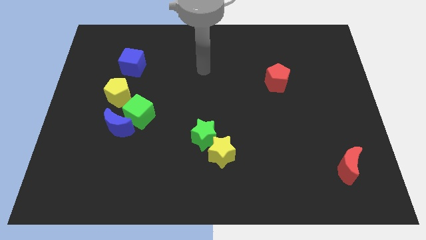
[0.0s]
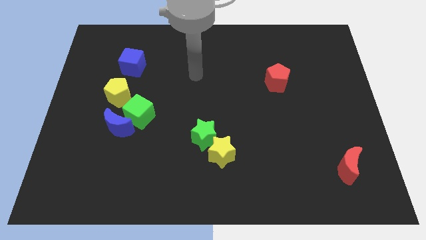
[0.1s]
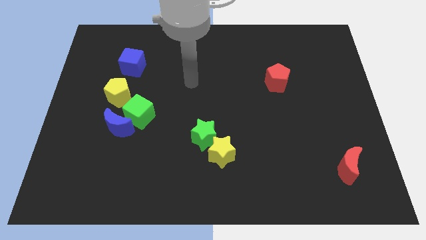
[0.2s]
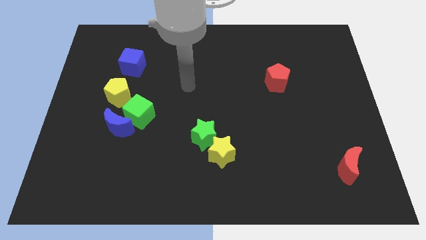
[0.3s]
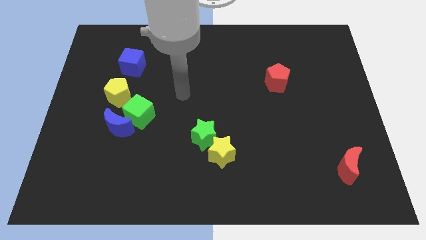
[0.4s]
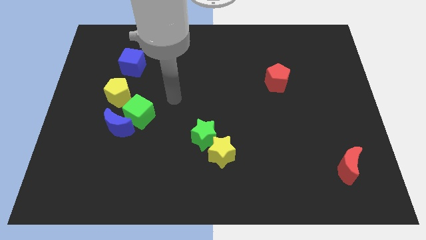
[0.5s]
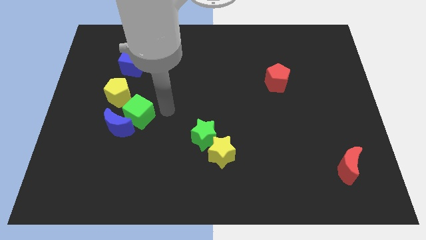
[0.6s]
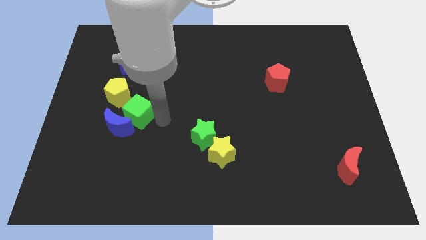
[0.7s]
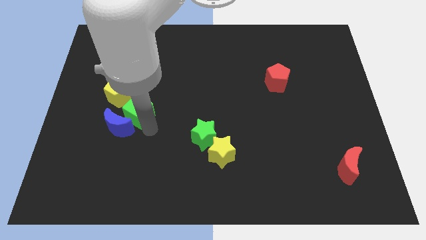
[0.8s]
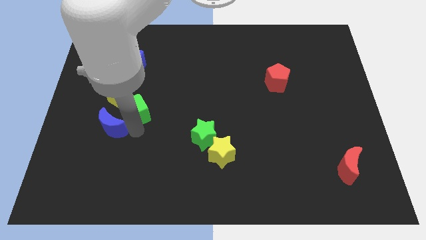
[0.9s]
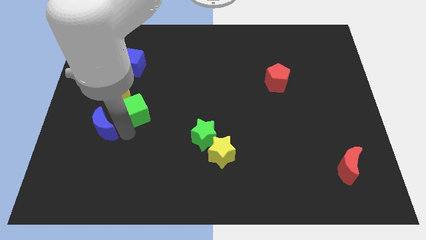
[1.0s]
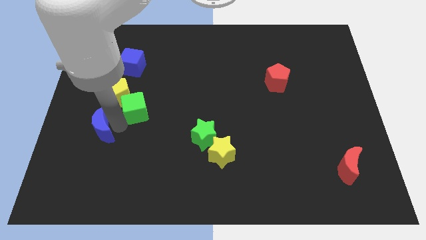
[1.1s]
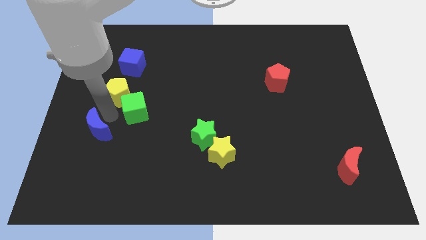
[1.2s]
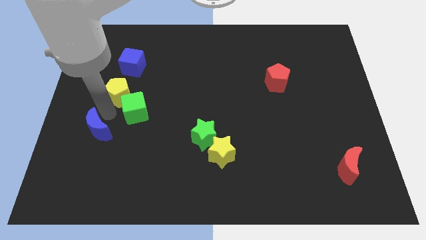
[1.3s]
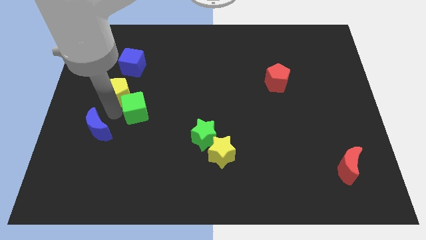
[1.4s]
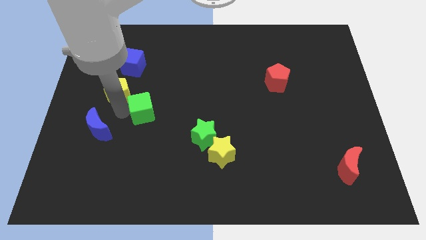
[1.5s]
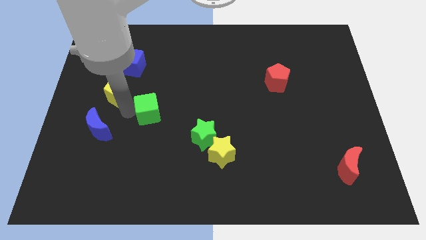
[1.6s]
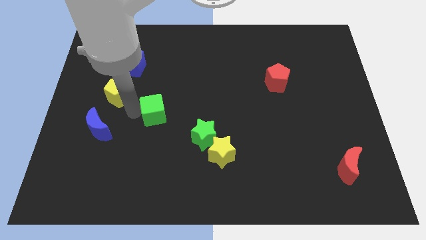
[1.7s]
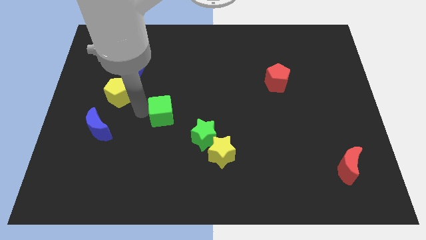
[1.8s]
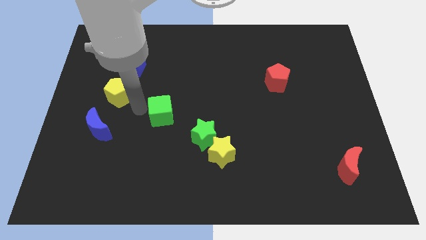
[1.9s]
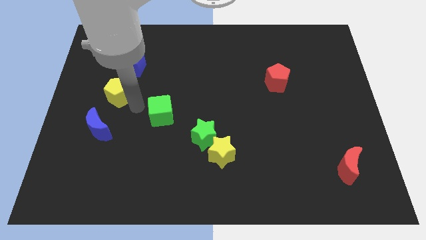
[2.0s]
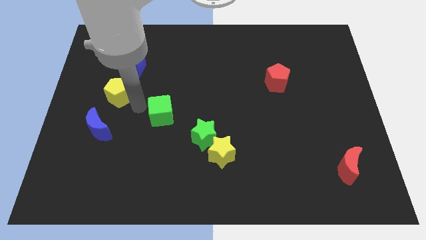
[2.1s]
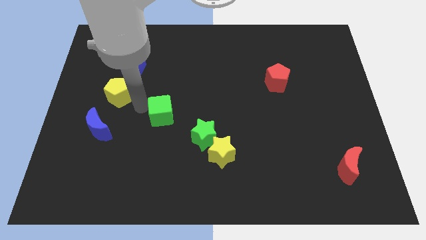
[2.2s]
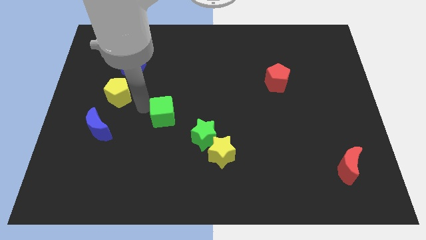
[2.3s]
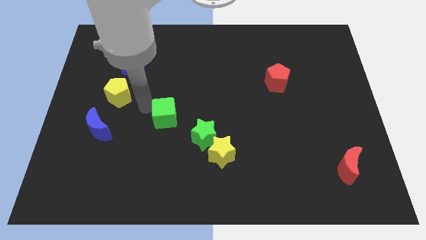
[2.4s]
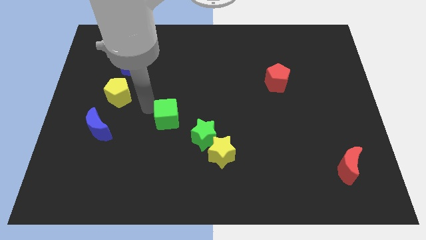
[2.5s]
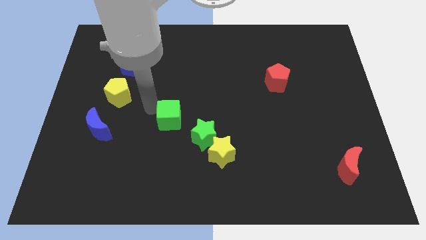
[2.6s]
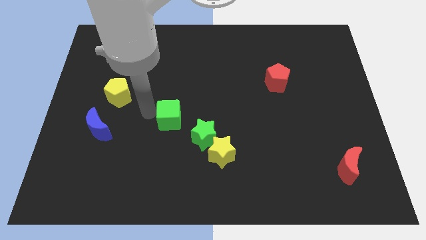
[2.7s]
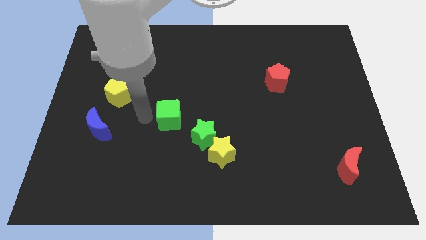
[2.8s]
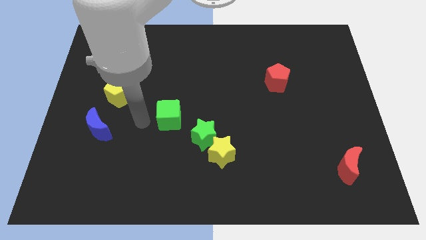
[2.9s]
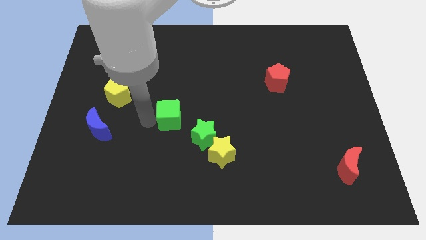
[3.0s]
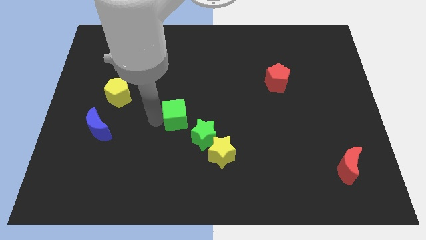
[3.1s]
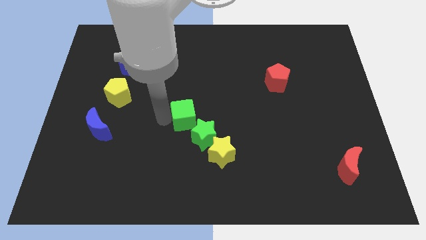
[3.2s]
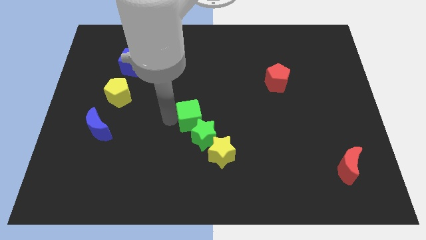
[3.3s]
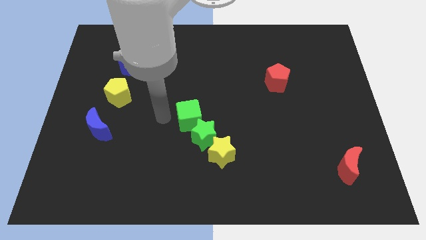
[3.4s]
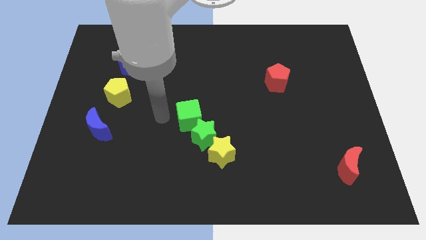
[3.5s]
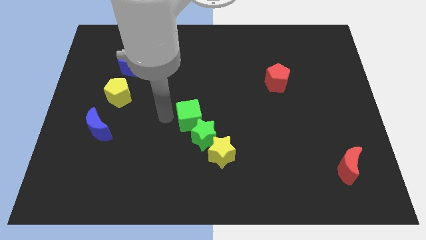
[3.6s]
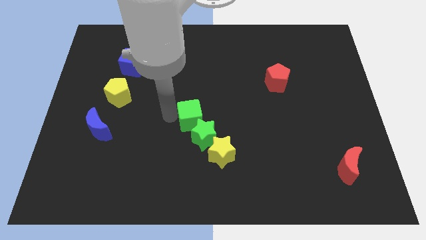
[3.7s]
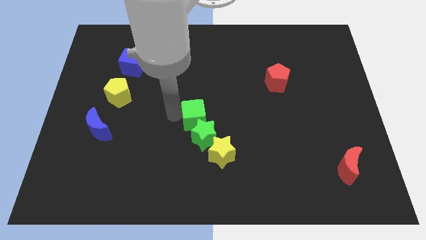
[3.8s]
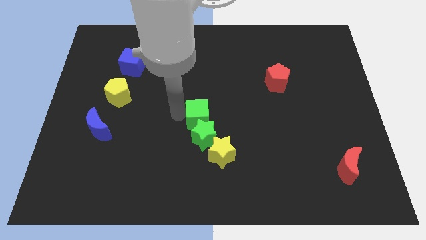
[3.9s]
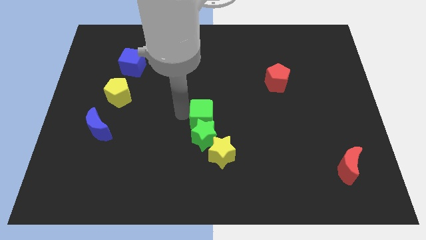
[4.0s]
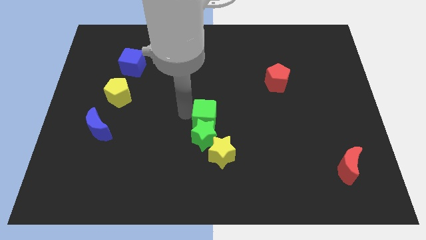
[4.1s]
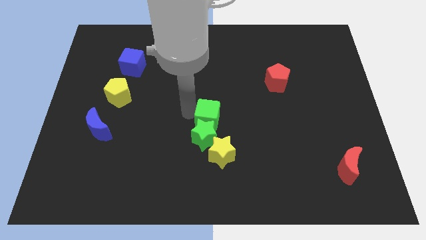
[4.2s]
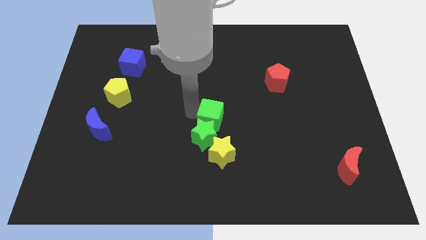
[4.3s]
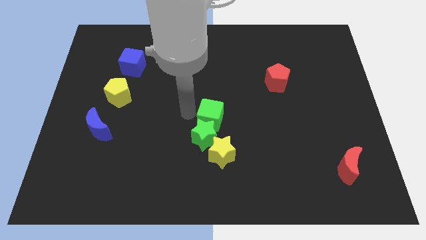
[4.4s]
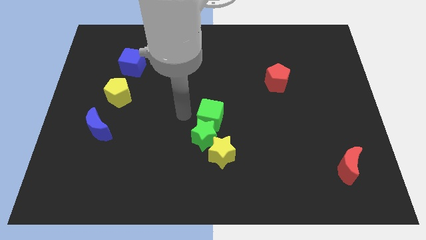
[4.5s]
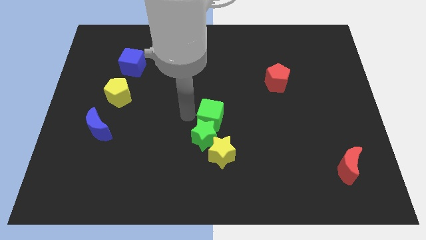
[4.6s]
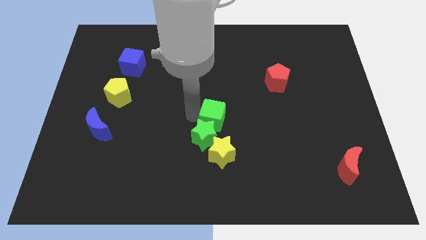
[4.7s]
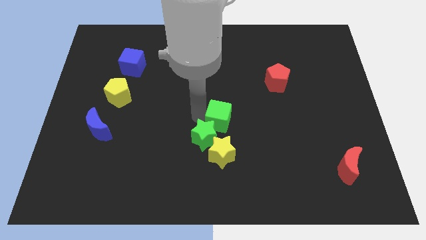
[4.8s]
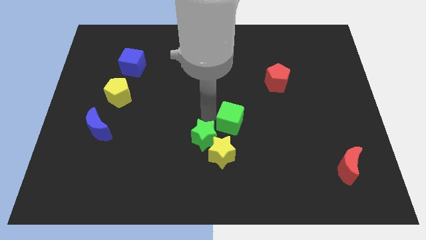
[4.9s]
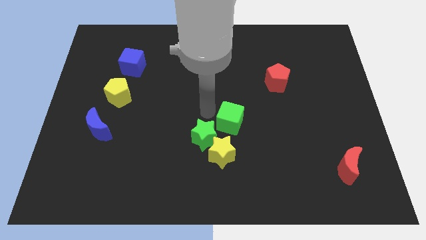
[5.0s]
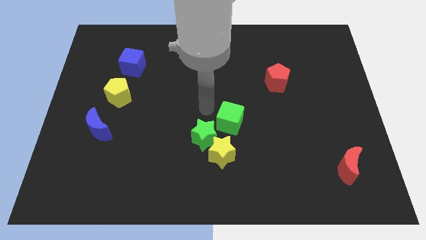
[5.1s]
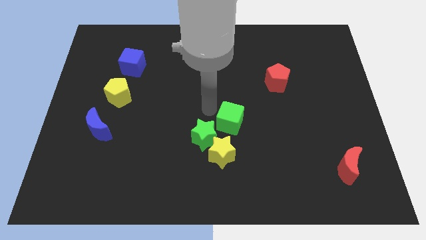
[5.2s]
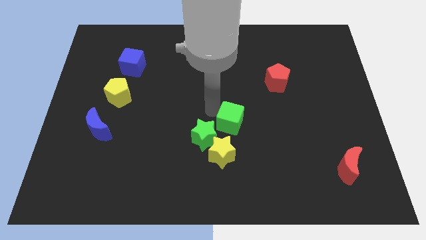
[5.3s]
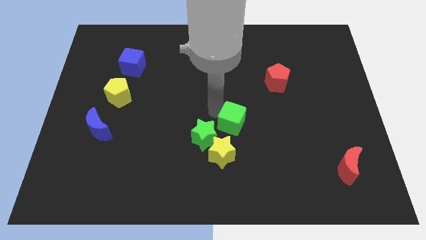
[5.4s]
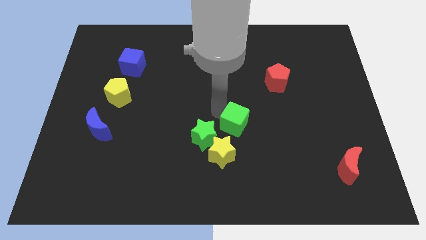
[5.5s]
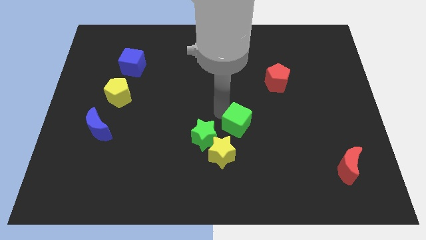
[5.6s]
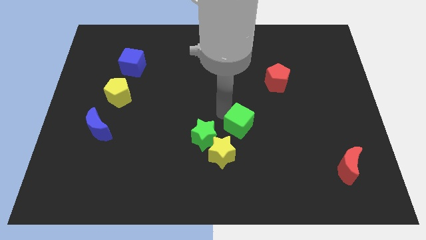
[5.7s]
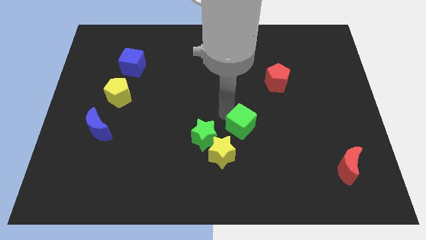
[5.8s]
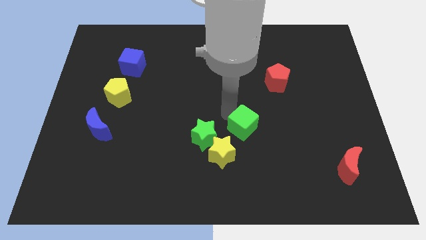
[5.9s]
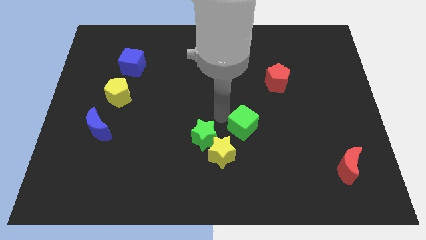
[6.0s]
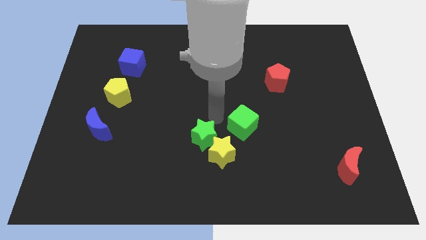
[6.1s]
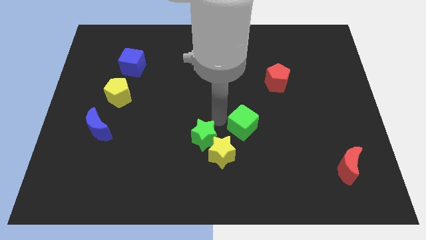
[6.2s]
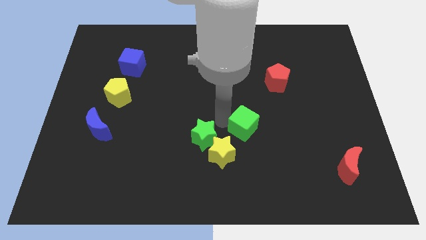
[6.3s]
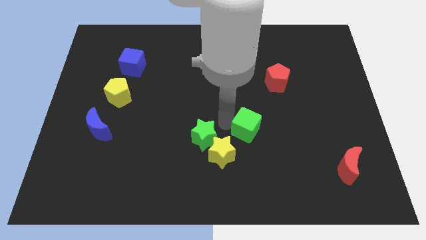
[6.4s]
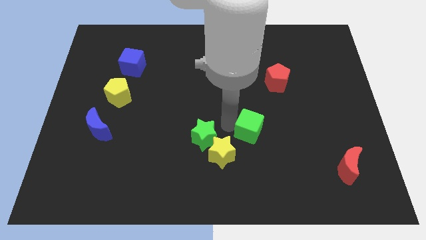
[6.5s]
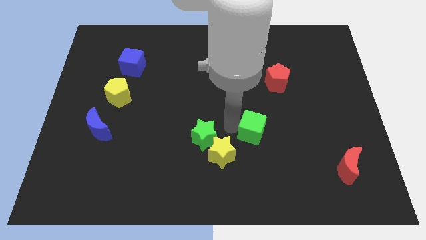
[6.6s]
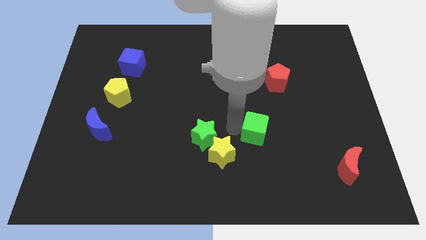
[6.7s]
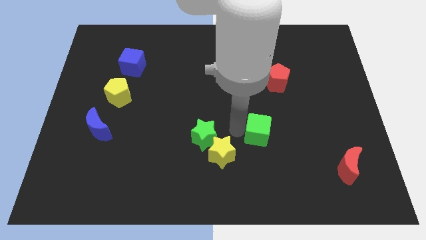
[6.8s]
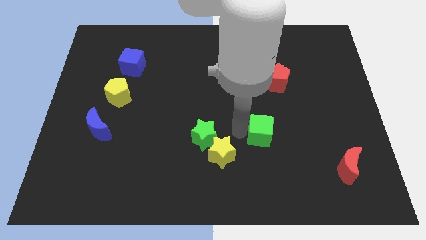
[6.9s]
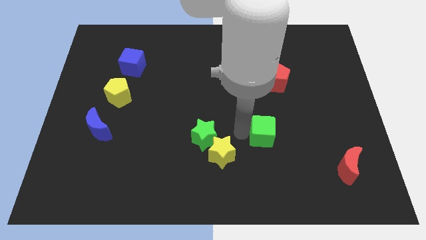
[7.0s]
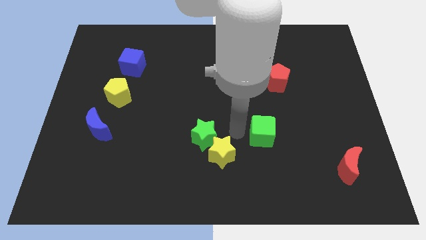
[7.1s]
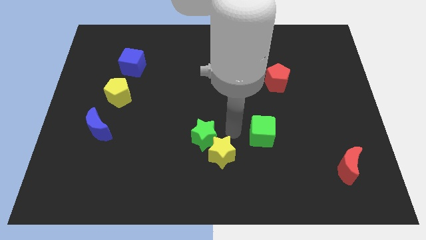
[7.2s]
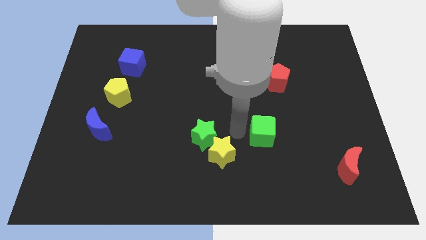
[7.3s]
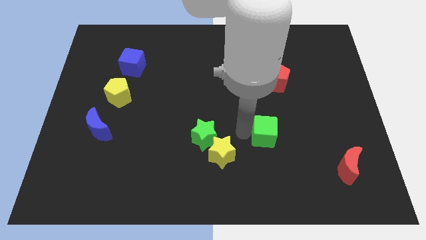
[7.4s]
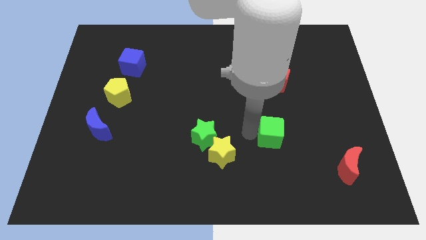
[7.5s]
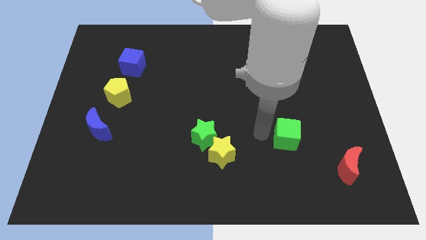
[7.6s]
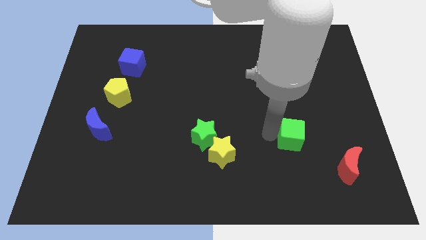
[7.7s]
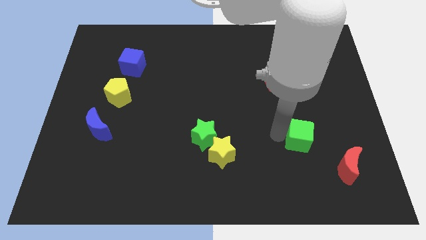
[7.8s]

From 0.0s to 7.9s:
push the green cube to the top left side of the red moon
